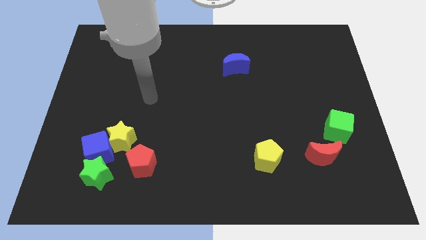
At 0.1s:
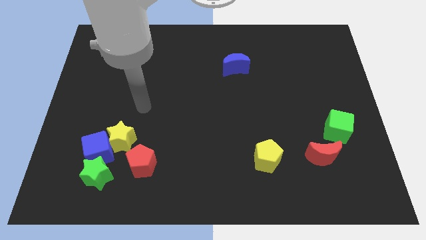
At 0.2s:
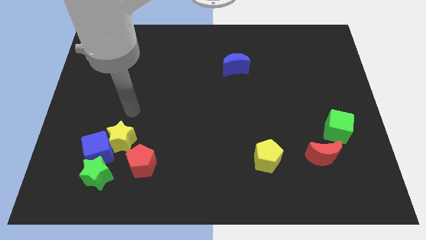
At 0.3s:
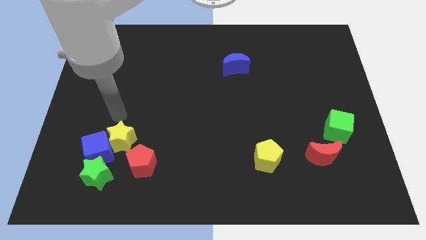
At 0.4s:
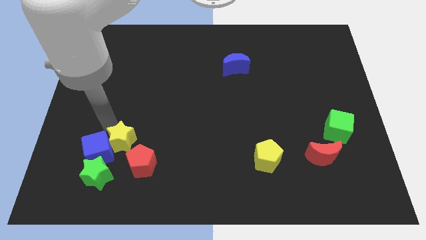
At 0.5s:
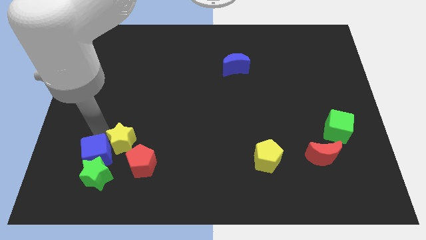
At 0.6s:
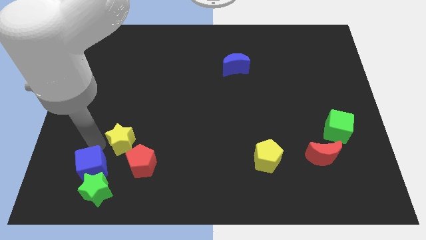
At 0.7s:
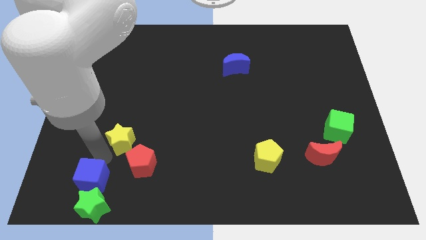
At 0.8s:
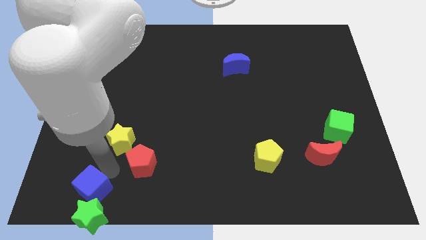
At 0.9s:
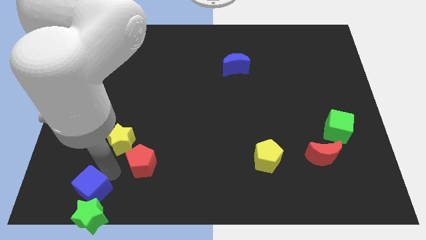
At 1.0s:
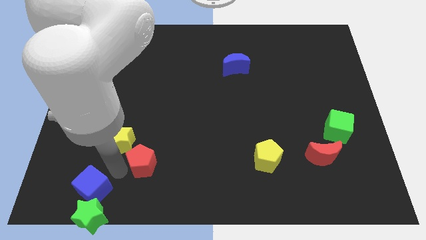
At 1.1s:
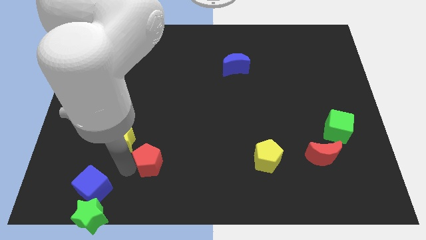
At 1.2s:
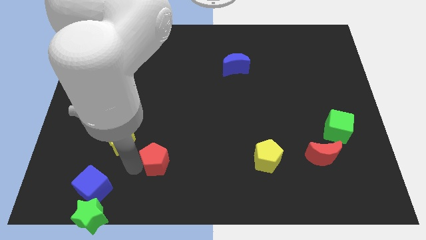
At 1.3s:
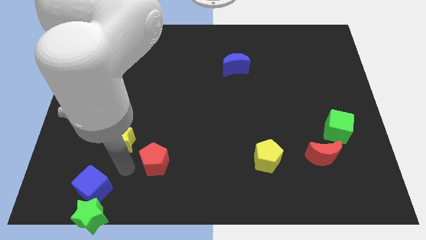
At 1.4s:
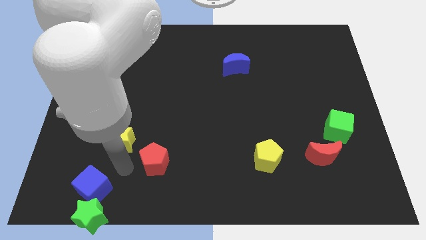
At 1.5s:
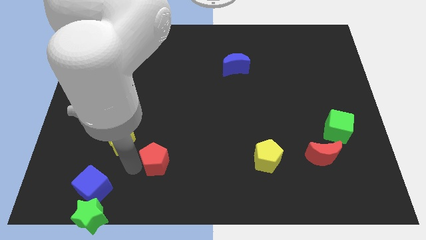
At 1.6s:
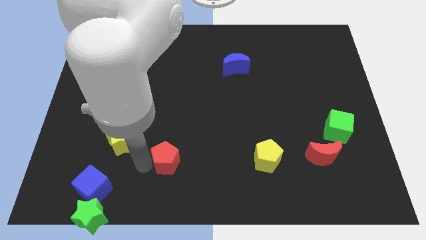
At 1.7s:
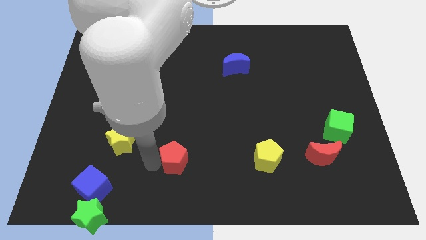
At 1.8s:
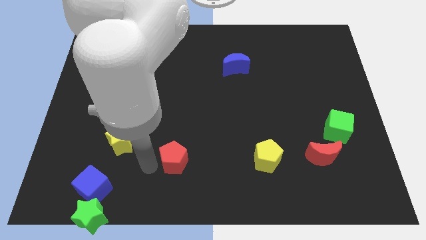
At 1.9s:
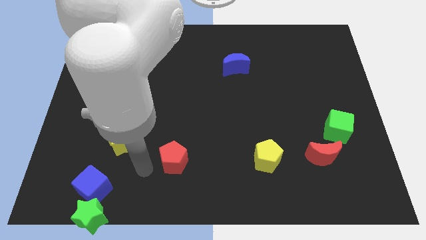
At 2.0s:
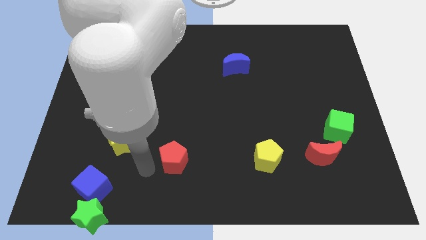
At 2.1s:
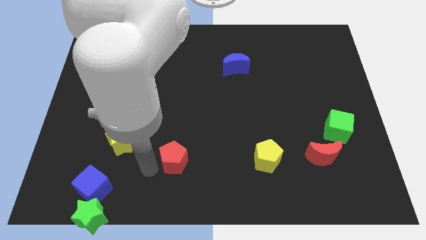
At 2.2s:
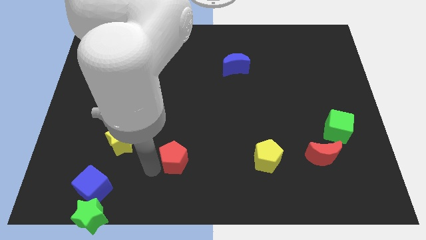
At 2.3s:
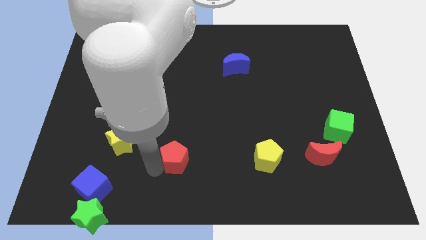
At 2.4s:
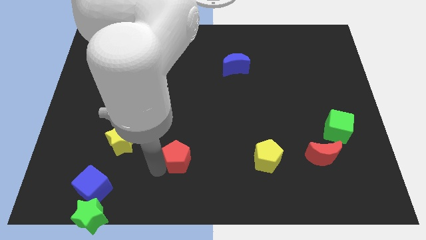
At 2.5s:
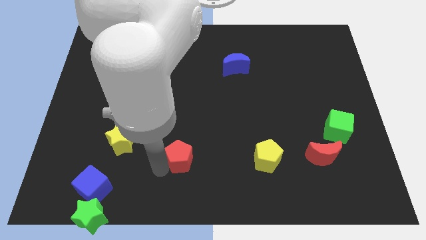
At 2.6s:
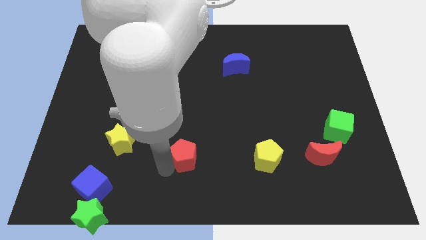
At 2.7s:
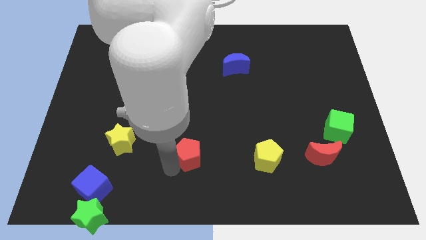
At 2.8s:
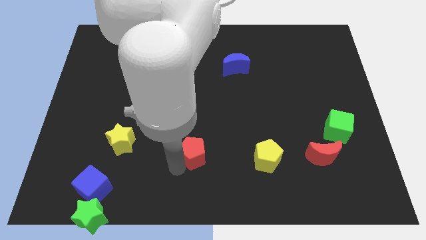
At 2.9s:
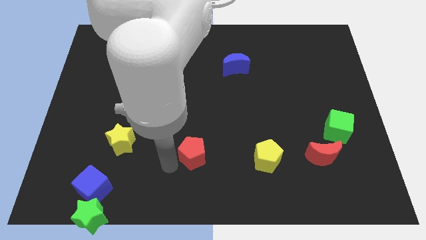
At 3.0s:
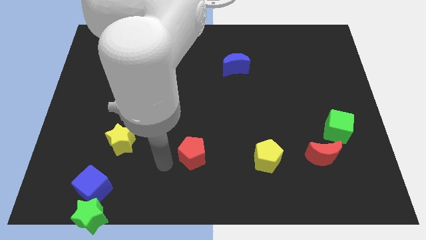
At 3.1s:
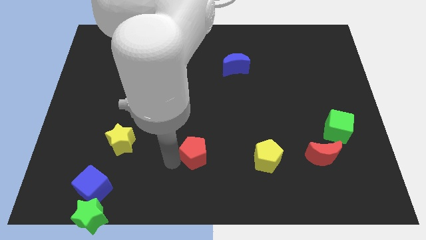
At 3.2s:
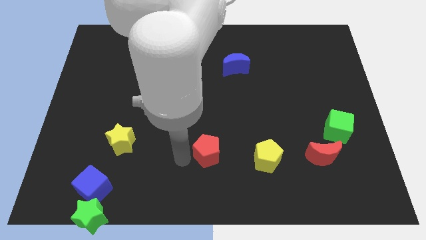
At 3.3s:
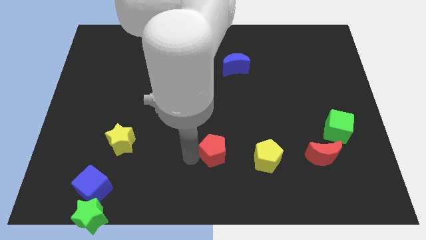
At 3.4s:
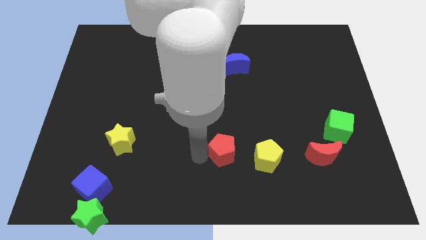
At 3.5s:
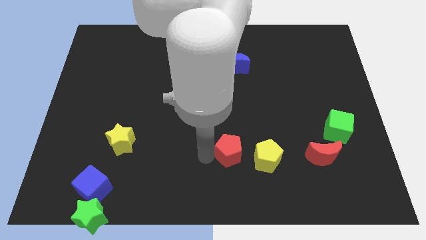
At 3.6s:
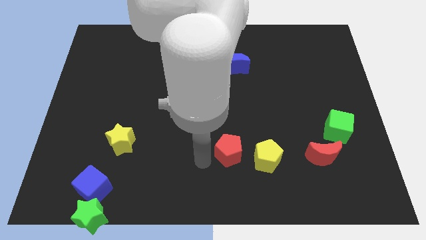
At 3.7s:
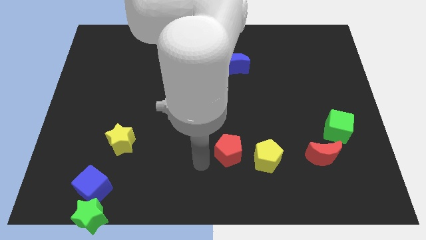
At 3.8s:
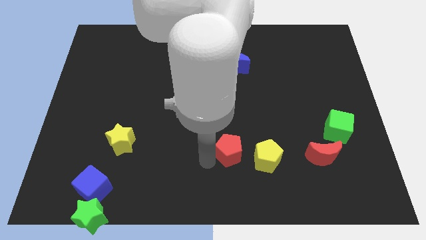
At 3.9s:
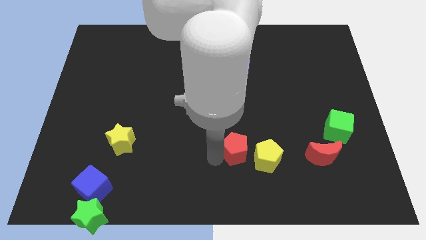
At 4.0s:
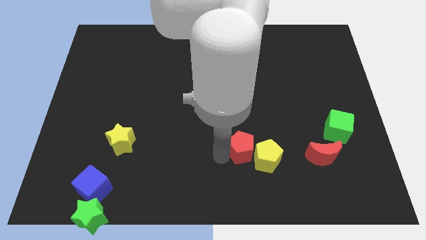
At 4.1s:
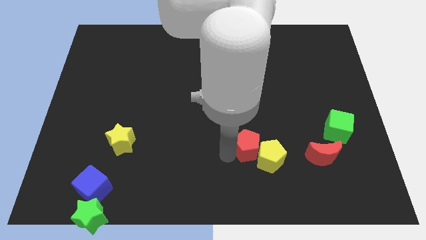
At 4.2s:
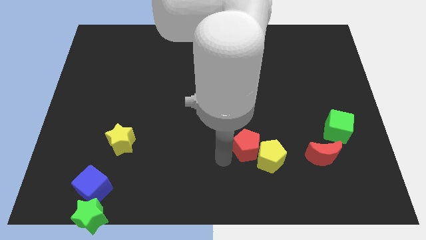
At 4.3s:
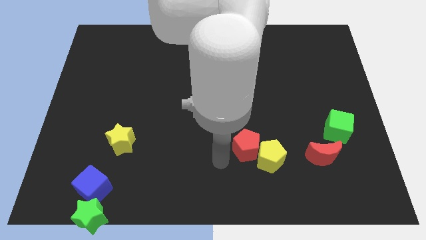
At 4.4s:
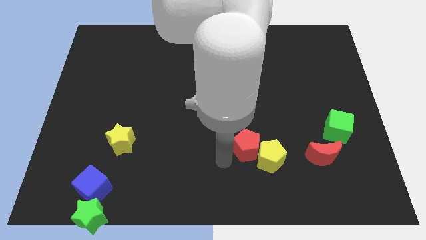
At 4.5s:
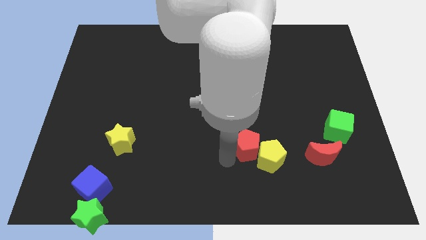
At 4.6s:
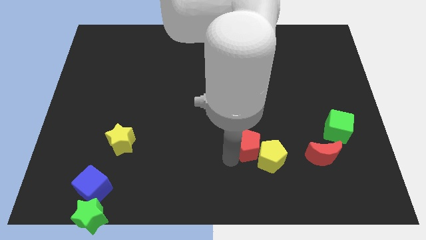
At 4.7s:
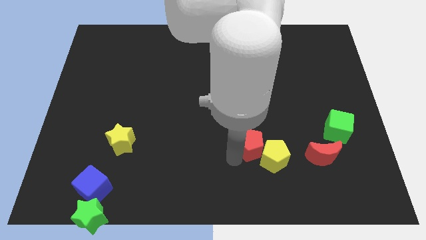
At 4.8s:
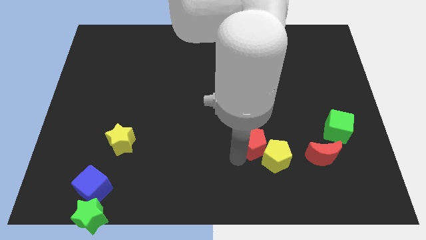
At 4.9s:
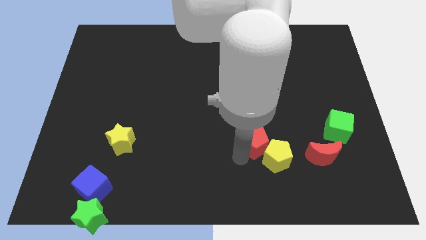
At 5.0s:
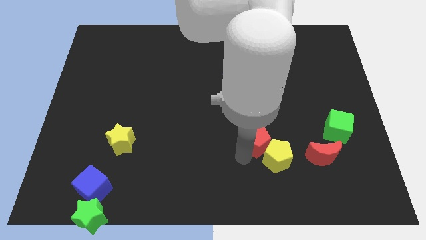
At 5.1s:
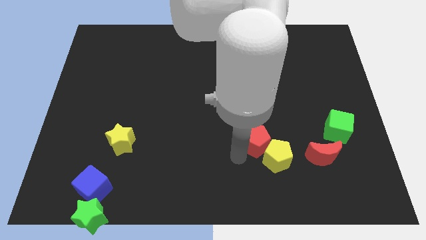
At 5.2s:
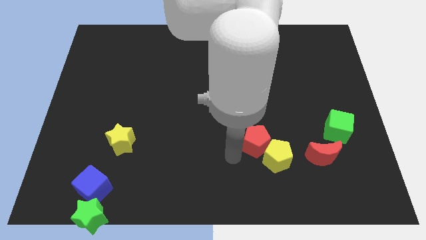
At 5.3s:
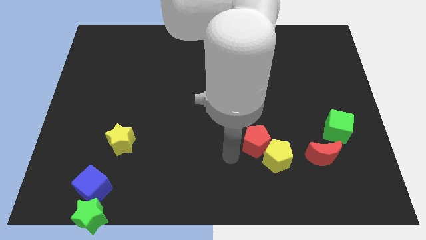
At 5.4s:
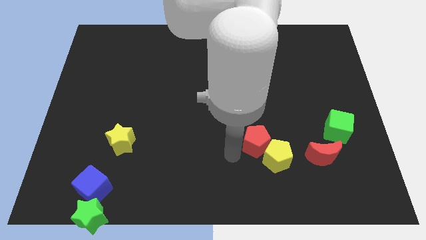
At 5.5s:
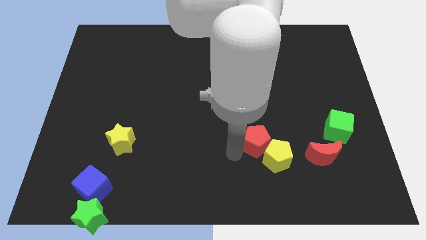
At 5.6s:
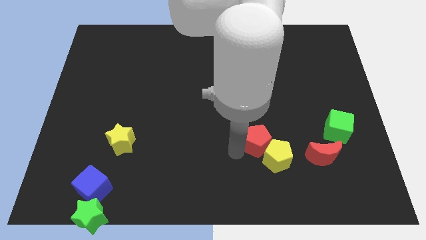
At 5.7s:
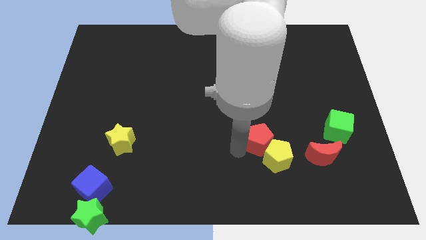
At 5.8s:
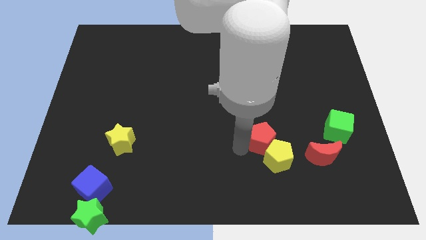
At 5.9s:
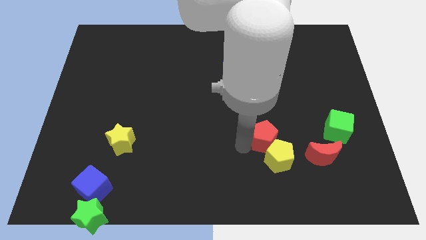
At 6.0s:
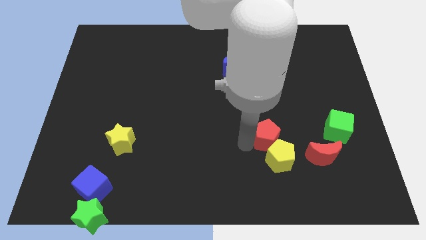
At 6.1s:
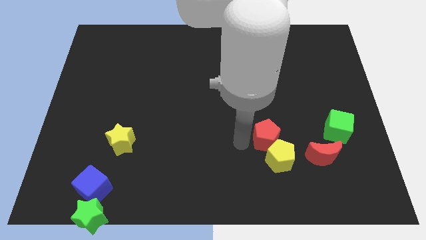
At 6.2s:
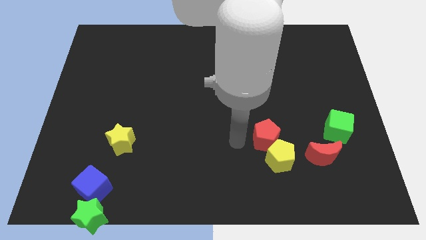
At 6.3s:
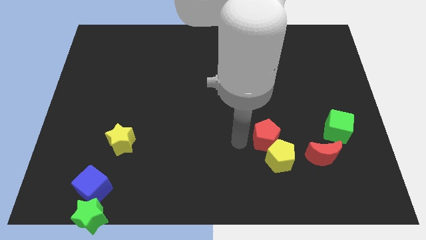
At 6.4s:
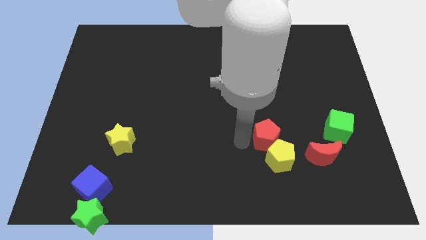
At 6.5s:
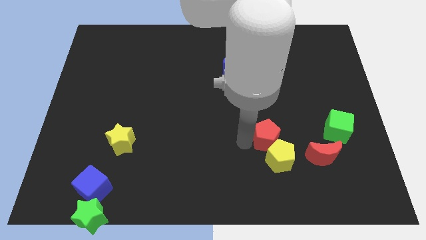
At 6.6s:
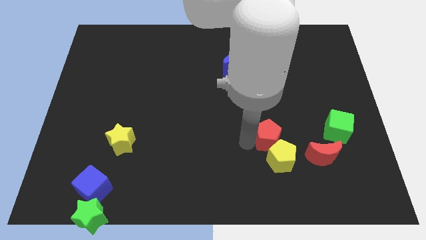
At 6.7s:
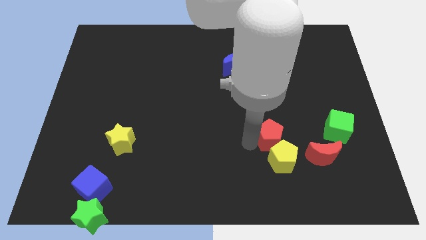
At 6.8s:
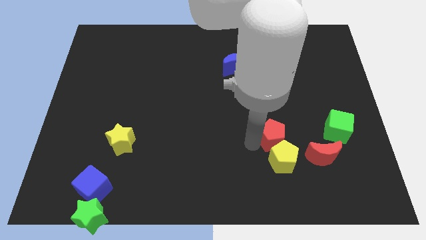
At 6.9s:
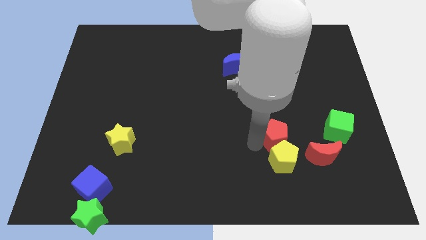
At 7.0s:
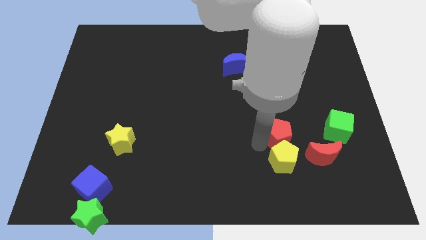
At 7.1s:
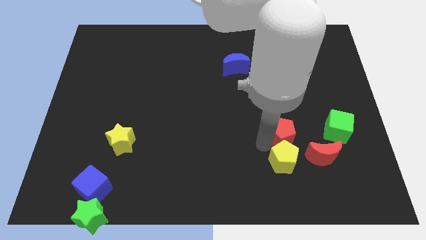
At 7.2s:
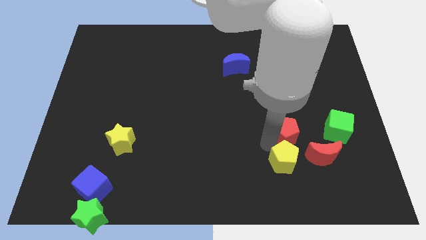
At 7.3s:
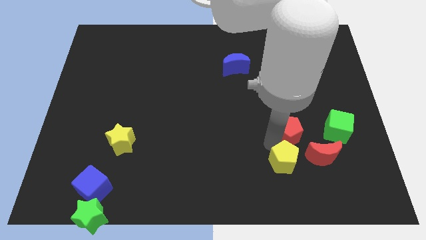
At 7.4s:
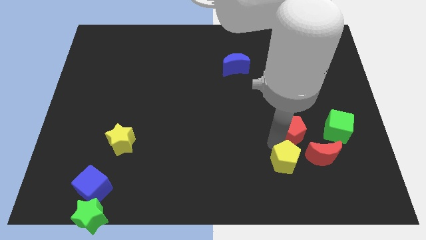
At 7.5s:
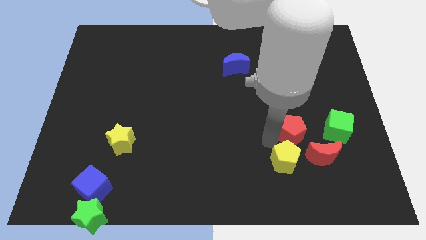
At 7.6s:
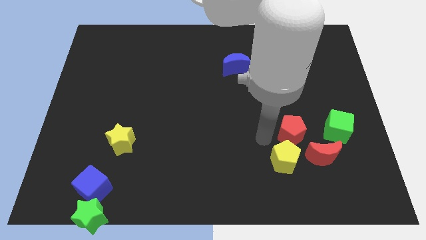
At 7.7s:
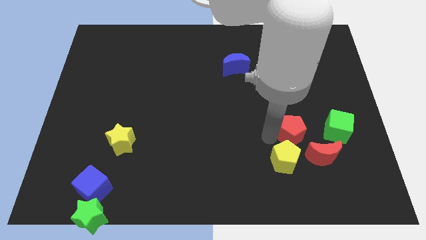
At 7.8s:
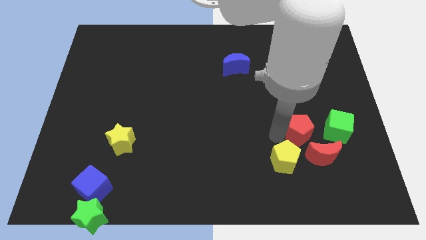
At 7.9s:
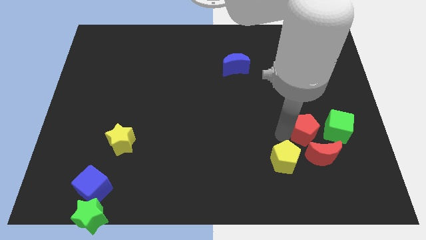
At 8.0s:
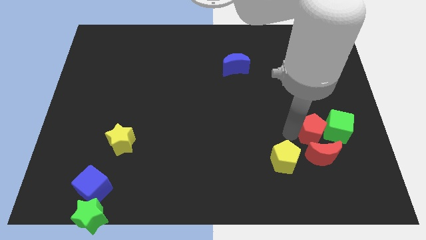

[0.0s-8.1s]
push the red pentagon close to the green cube
